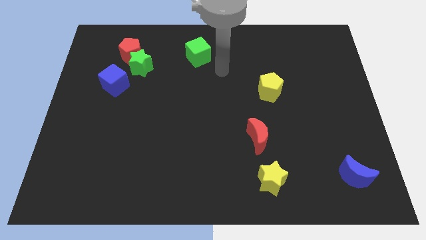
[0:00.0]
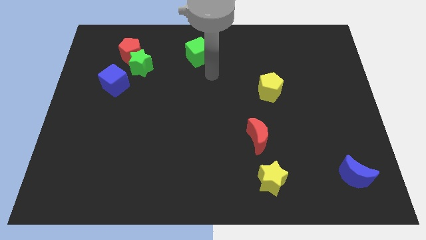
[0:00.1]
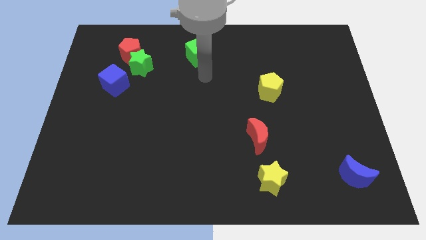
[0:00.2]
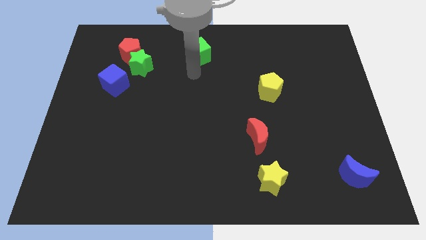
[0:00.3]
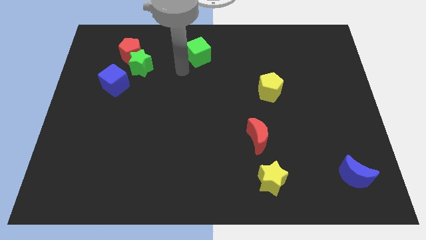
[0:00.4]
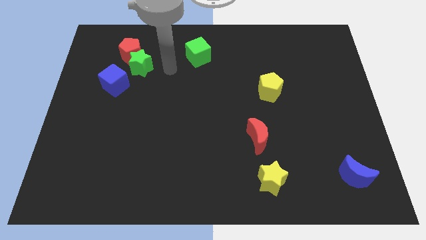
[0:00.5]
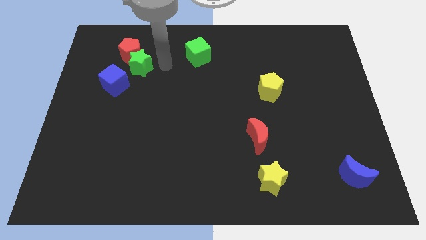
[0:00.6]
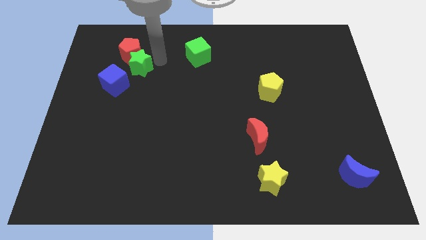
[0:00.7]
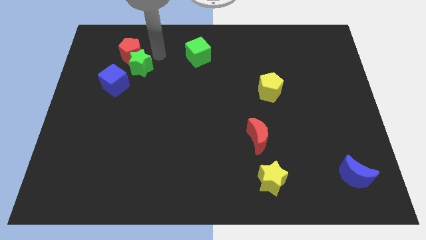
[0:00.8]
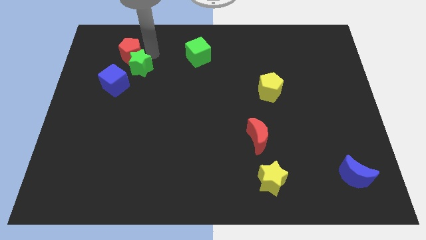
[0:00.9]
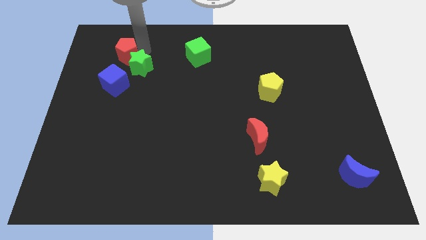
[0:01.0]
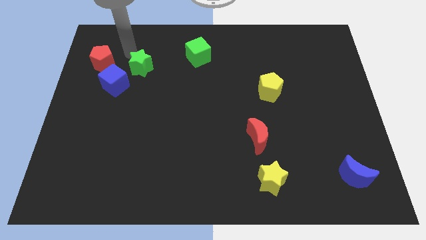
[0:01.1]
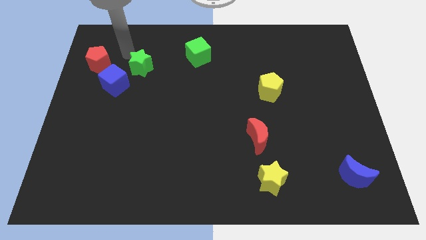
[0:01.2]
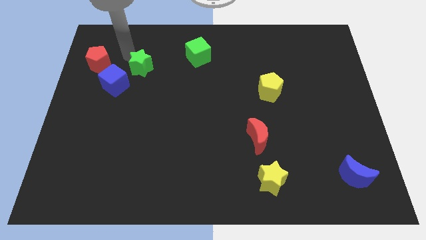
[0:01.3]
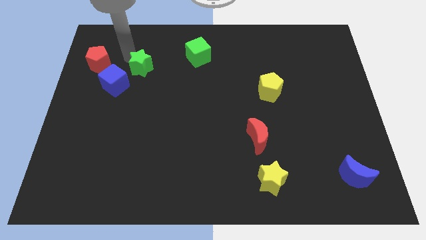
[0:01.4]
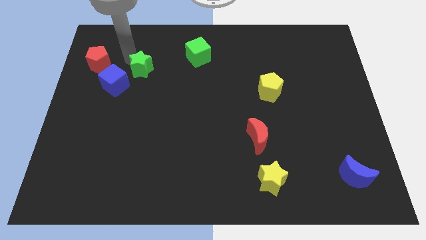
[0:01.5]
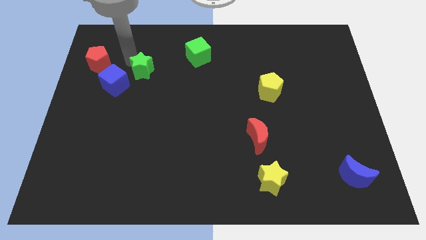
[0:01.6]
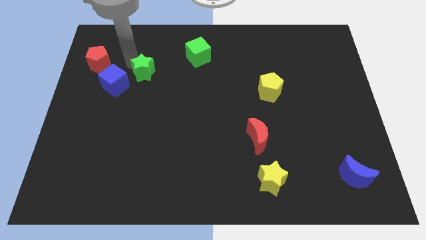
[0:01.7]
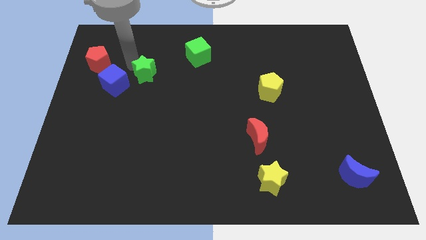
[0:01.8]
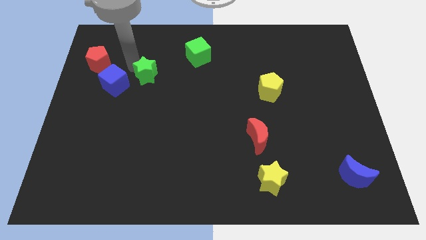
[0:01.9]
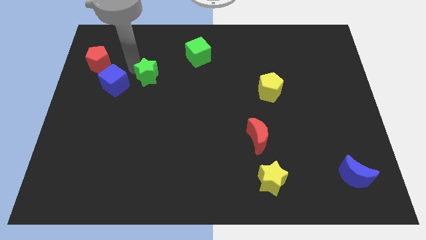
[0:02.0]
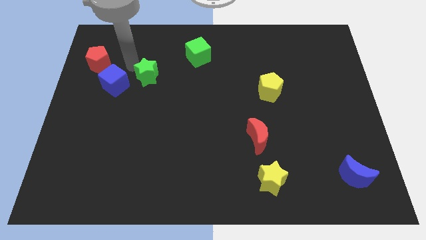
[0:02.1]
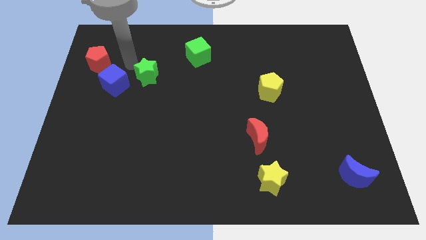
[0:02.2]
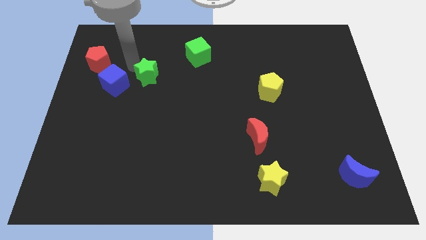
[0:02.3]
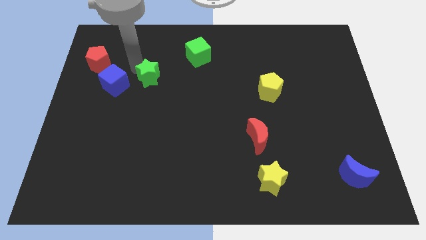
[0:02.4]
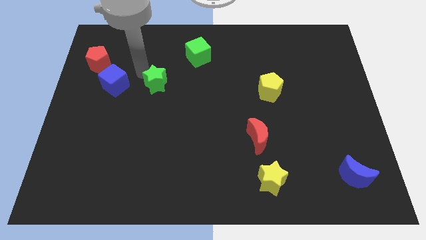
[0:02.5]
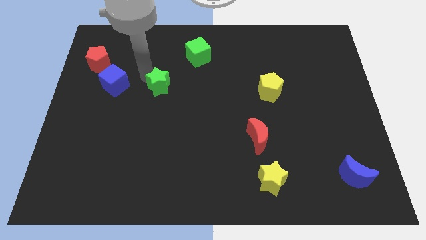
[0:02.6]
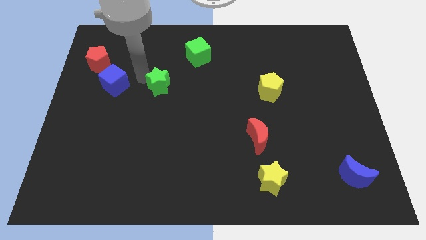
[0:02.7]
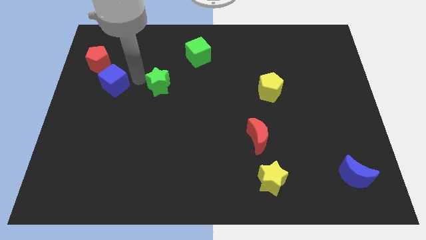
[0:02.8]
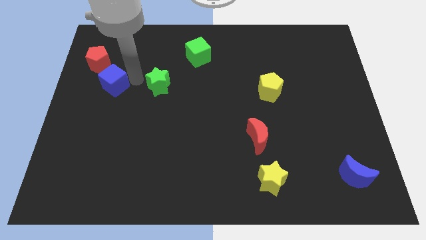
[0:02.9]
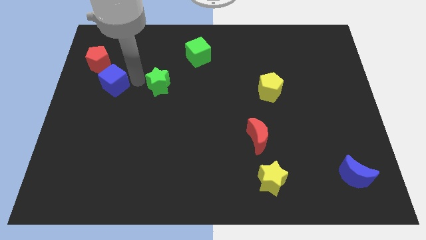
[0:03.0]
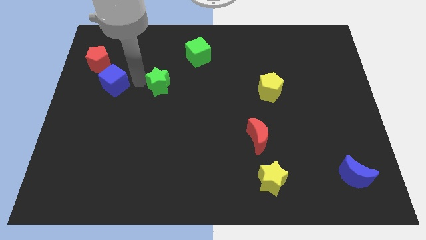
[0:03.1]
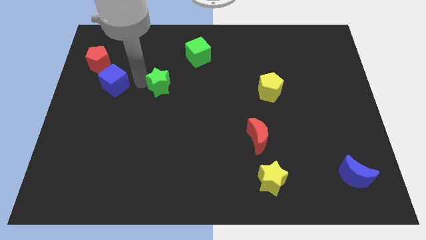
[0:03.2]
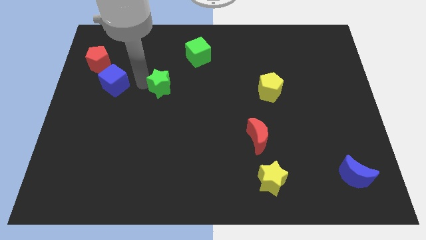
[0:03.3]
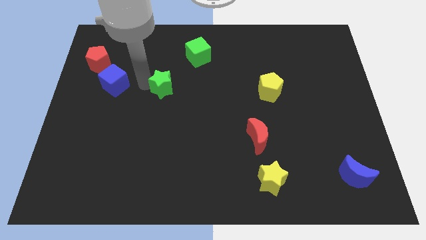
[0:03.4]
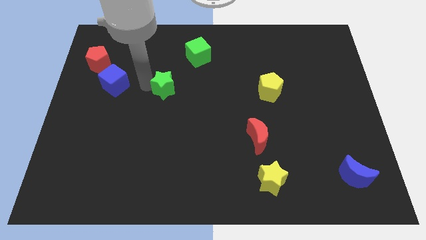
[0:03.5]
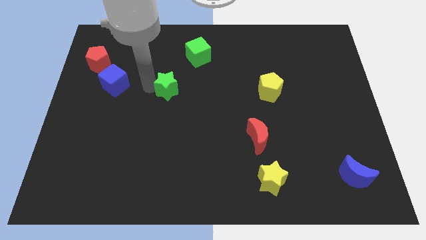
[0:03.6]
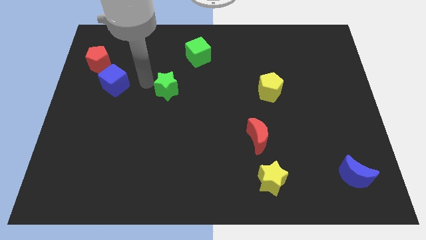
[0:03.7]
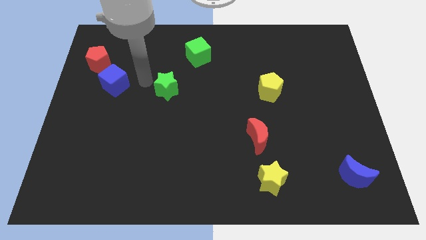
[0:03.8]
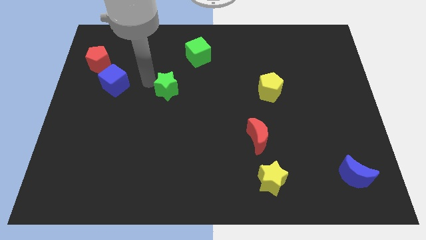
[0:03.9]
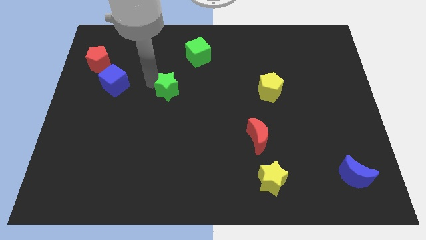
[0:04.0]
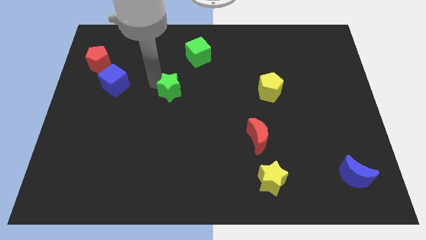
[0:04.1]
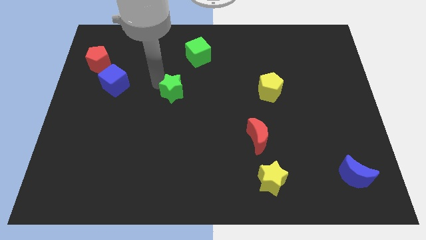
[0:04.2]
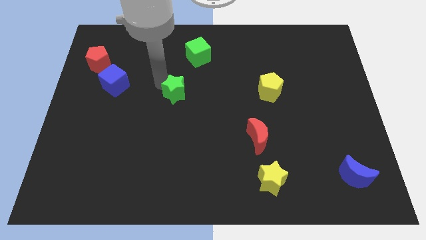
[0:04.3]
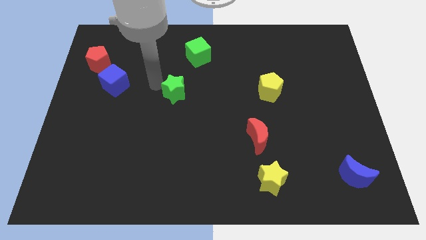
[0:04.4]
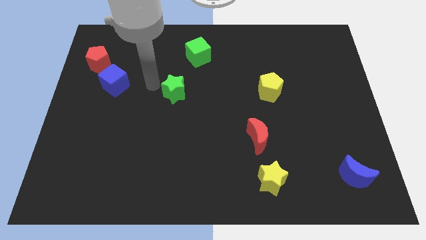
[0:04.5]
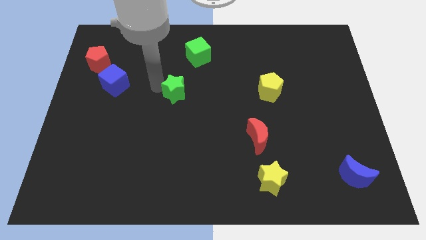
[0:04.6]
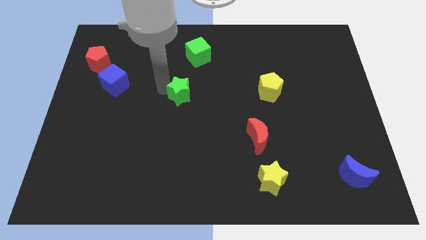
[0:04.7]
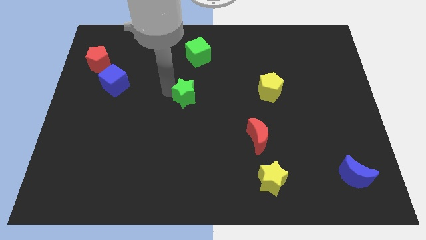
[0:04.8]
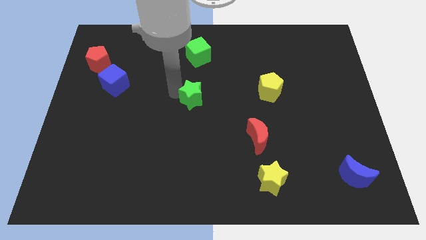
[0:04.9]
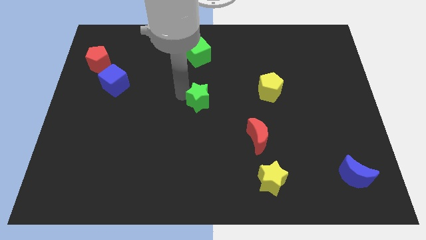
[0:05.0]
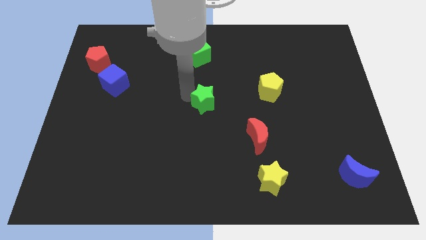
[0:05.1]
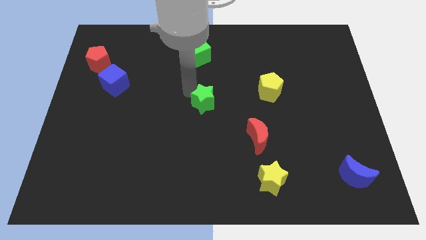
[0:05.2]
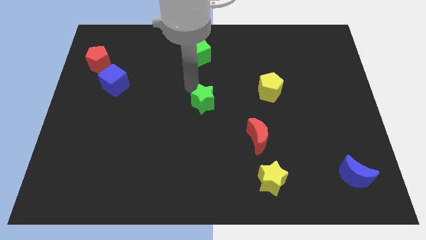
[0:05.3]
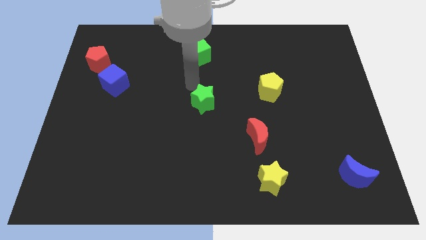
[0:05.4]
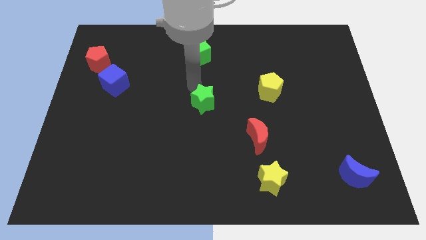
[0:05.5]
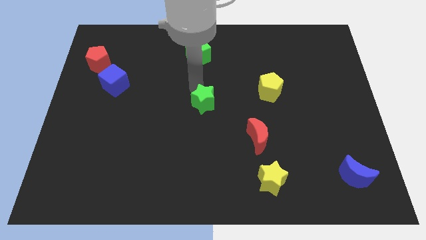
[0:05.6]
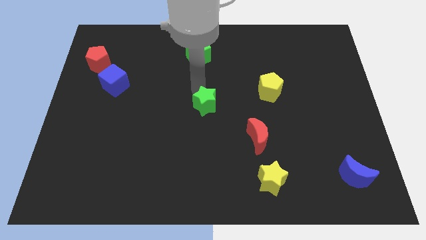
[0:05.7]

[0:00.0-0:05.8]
slide the green star downwards and then right

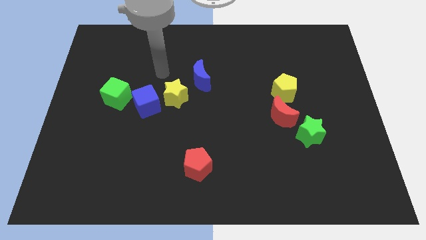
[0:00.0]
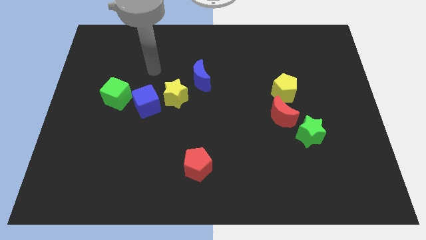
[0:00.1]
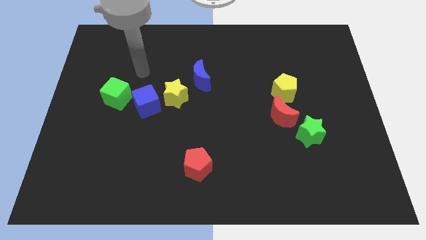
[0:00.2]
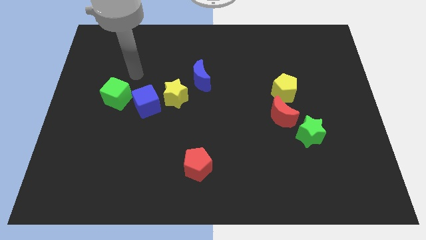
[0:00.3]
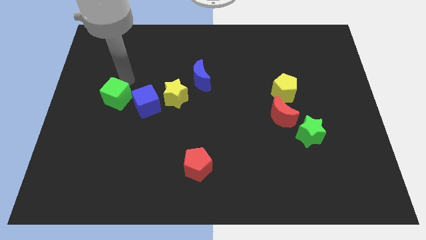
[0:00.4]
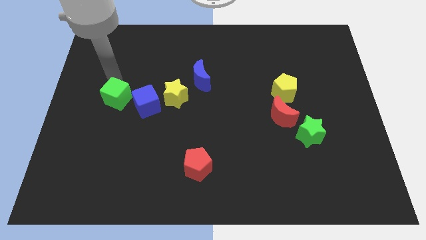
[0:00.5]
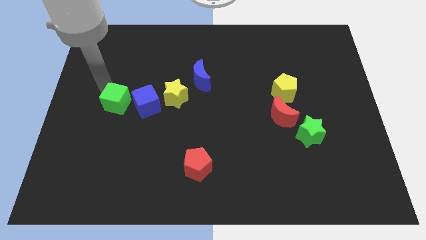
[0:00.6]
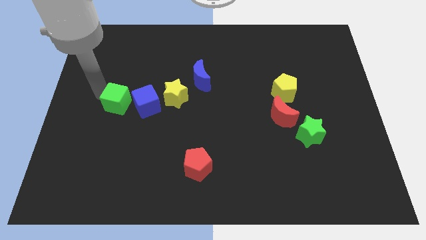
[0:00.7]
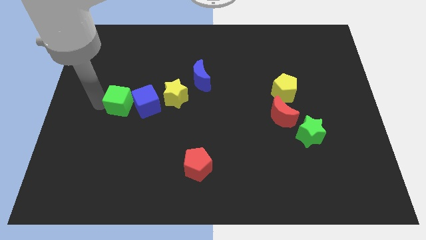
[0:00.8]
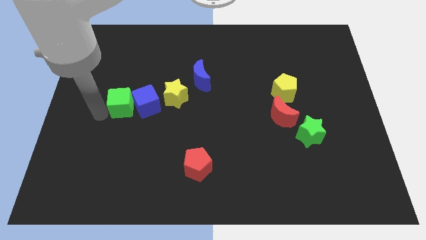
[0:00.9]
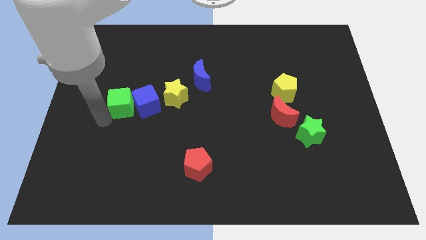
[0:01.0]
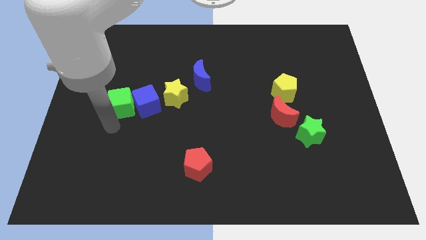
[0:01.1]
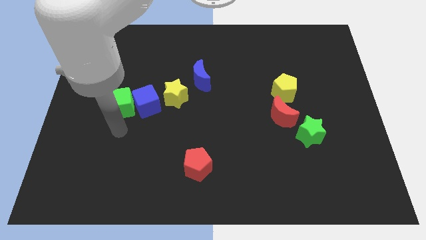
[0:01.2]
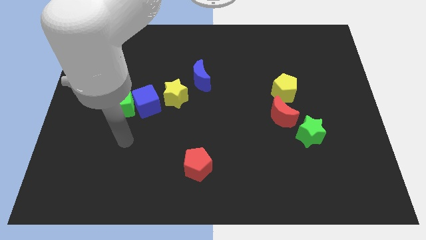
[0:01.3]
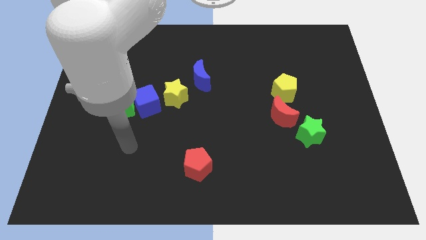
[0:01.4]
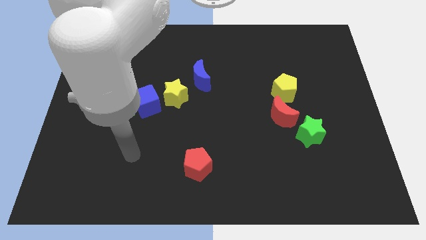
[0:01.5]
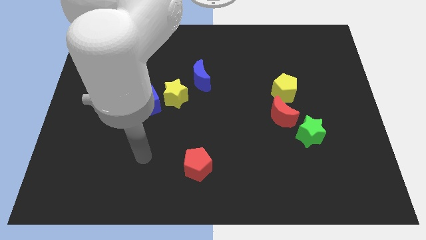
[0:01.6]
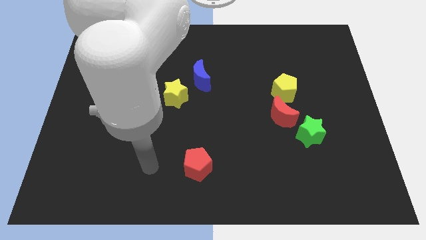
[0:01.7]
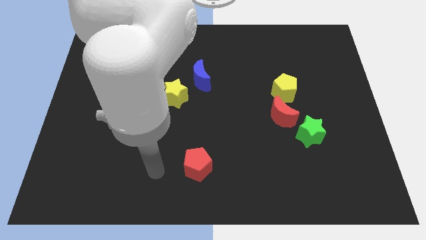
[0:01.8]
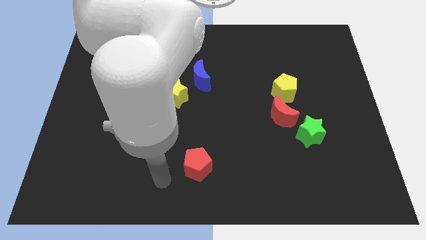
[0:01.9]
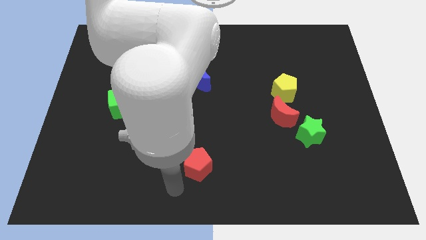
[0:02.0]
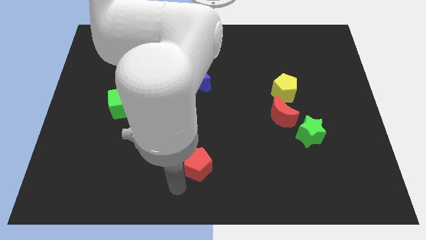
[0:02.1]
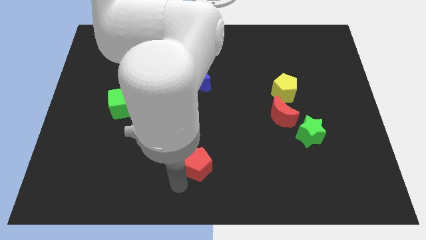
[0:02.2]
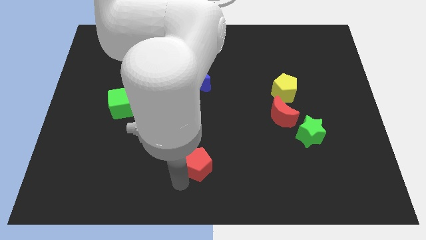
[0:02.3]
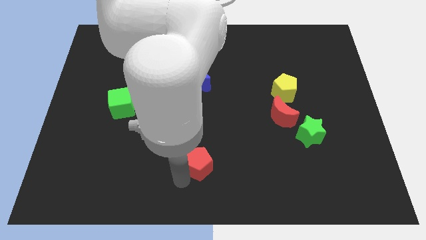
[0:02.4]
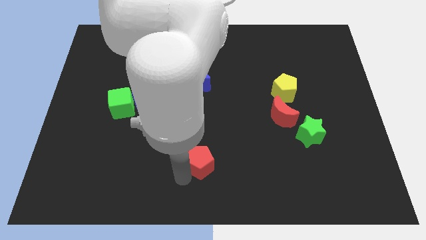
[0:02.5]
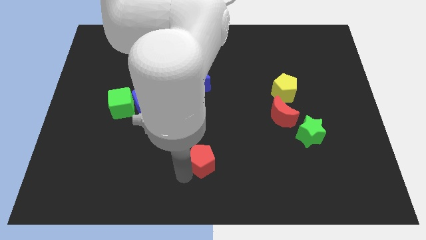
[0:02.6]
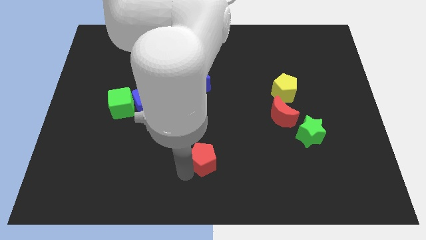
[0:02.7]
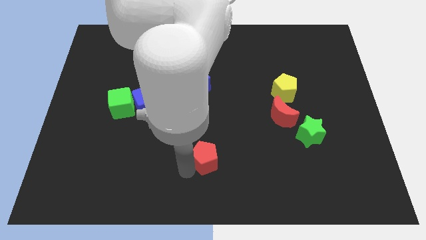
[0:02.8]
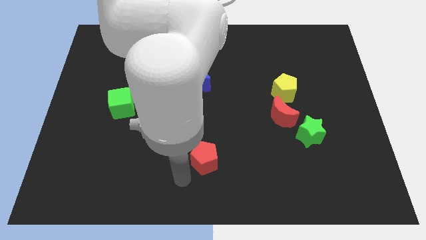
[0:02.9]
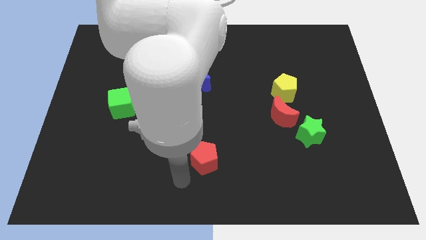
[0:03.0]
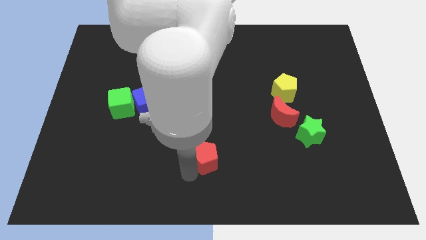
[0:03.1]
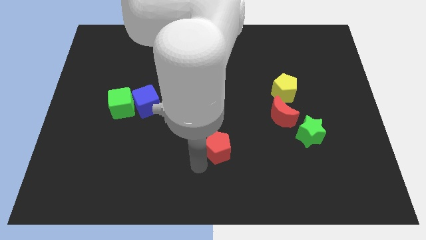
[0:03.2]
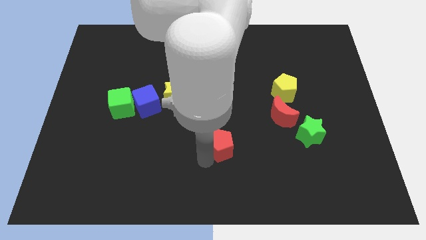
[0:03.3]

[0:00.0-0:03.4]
slide the red pentagon a little bit upwards and then right
